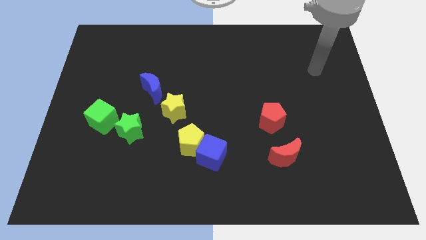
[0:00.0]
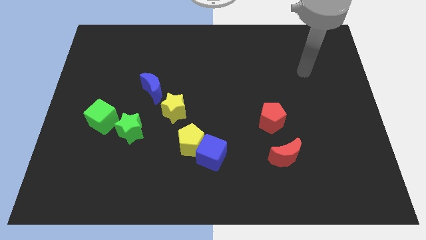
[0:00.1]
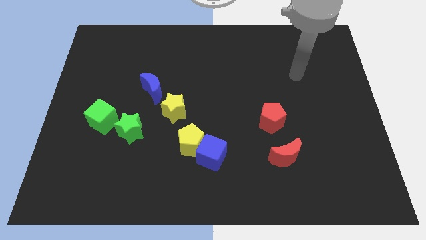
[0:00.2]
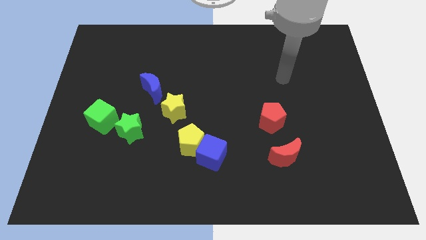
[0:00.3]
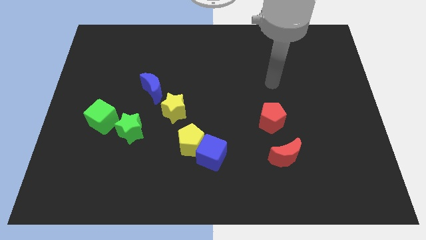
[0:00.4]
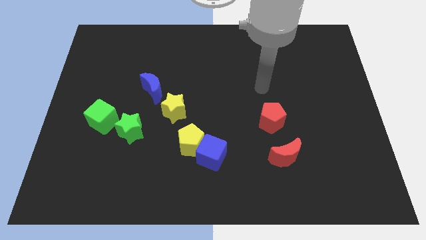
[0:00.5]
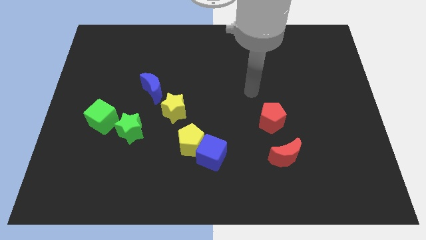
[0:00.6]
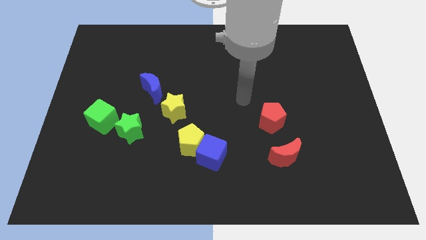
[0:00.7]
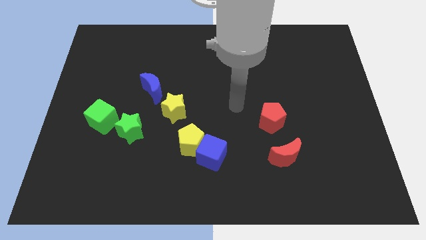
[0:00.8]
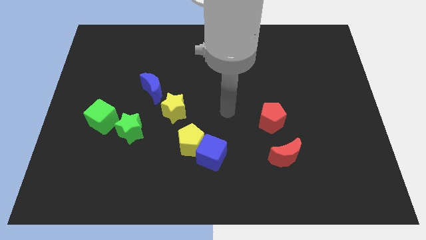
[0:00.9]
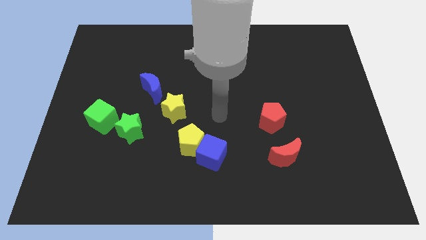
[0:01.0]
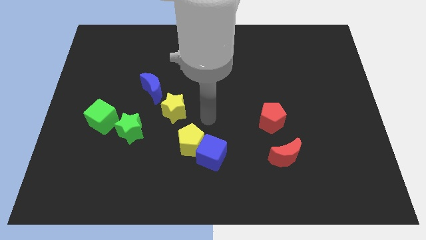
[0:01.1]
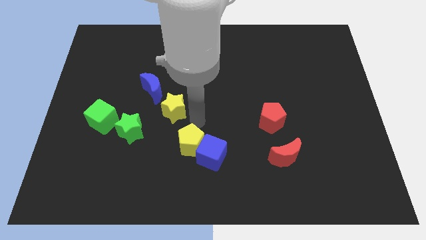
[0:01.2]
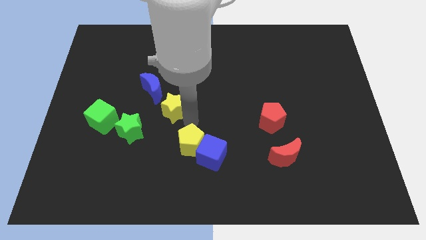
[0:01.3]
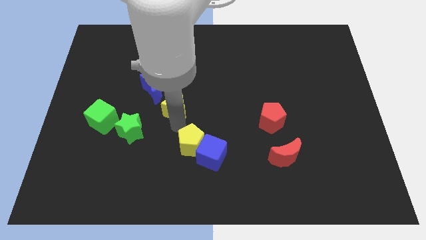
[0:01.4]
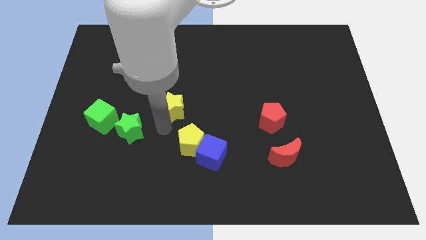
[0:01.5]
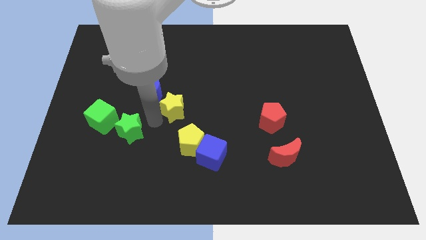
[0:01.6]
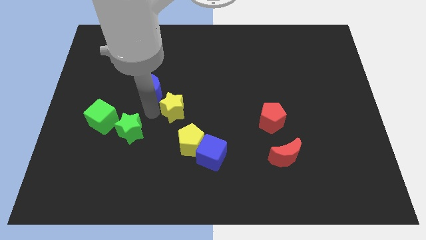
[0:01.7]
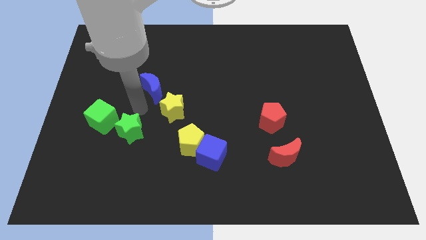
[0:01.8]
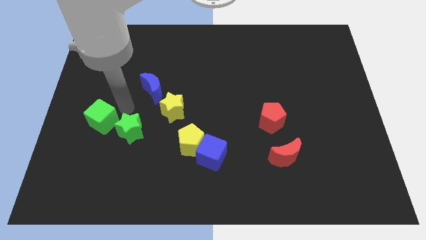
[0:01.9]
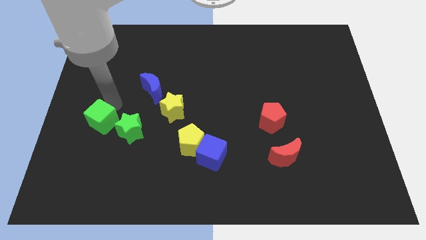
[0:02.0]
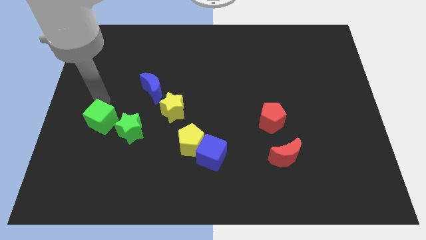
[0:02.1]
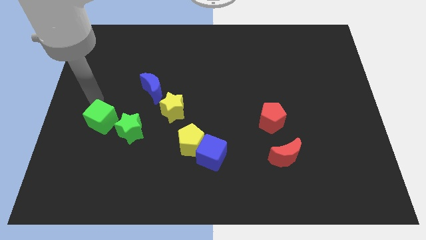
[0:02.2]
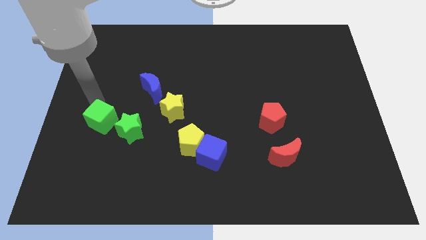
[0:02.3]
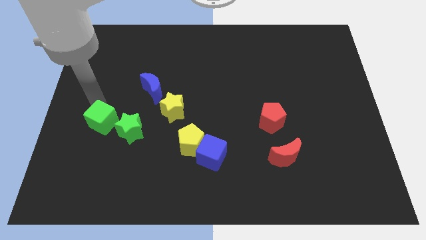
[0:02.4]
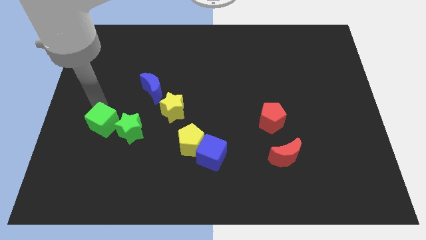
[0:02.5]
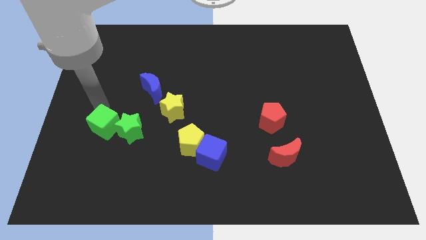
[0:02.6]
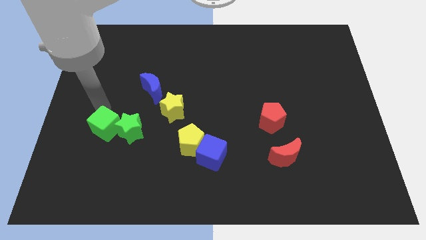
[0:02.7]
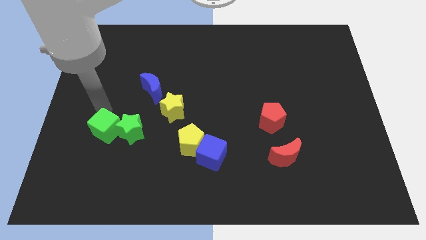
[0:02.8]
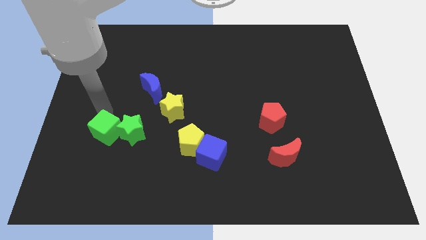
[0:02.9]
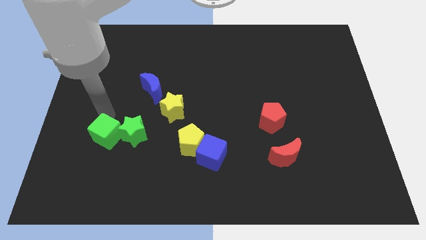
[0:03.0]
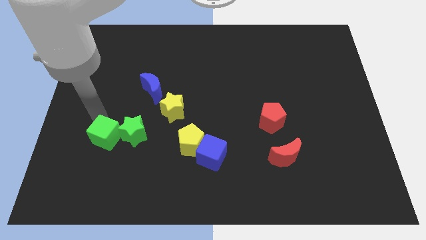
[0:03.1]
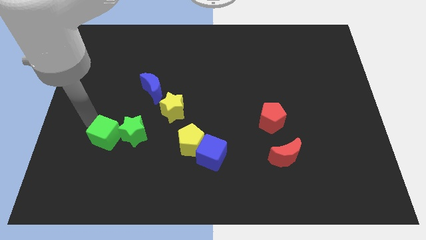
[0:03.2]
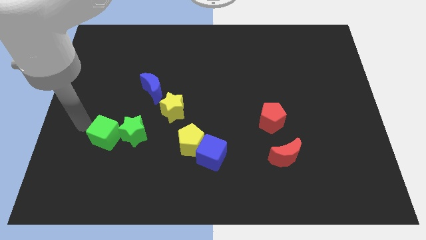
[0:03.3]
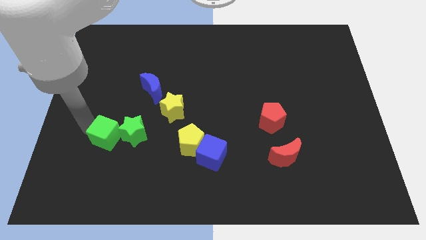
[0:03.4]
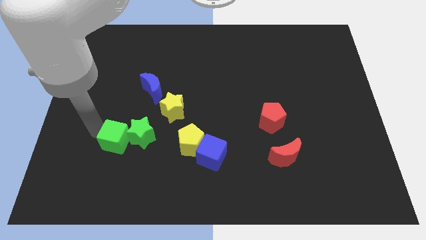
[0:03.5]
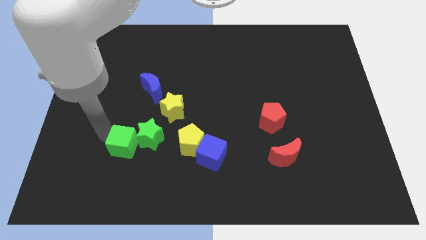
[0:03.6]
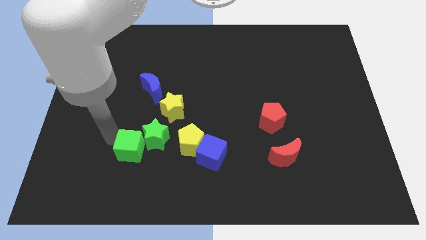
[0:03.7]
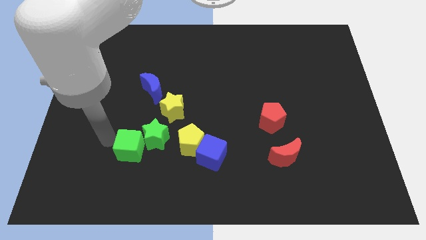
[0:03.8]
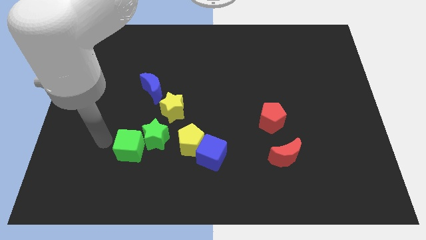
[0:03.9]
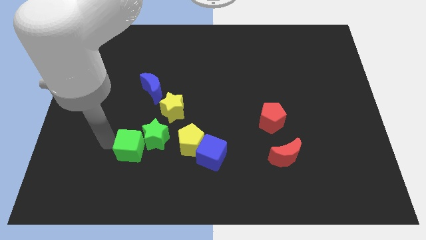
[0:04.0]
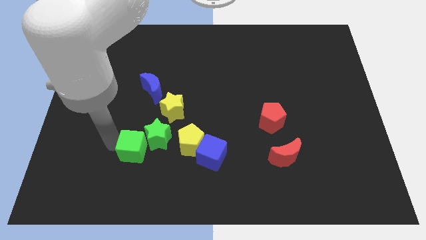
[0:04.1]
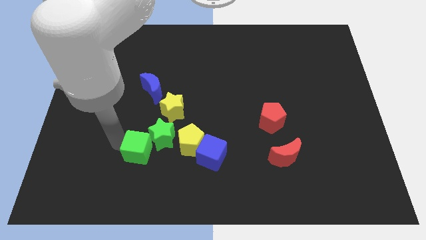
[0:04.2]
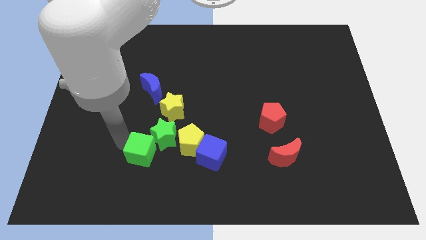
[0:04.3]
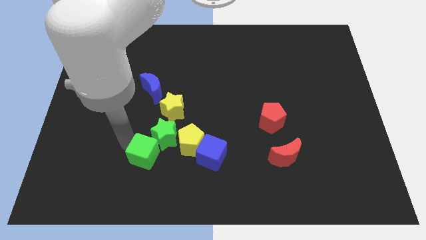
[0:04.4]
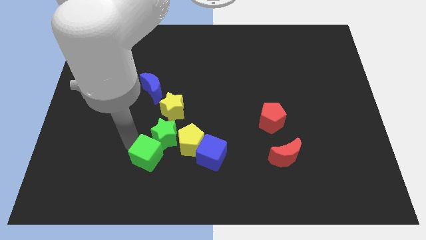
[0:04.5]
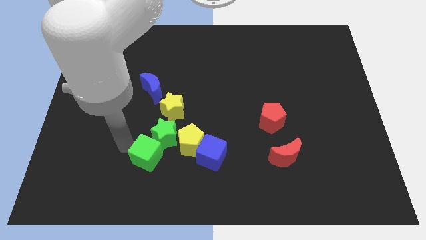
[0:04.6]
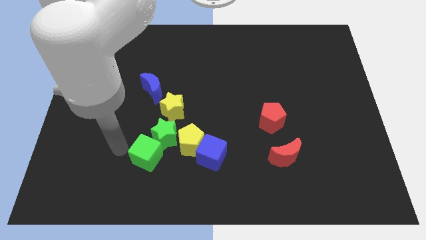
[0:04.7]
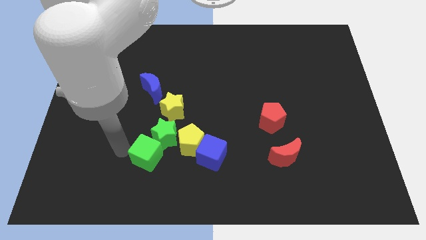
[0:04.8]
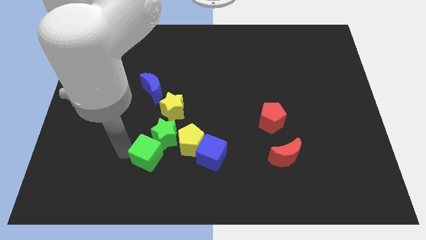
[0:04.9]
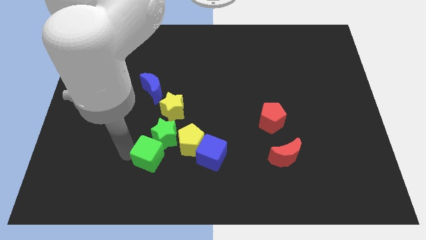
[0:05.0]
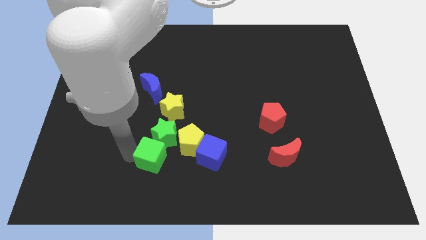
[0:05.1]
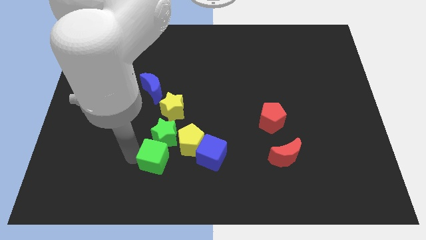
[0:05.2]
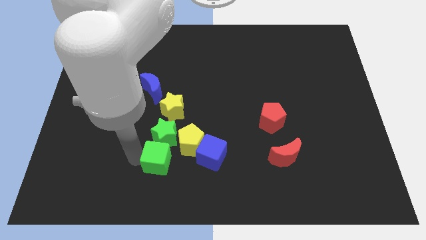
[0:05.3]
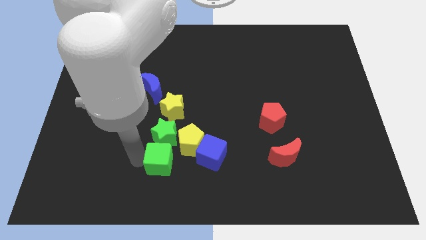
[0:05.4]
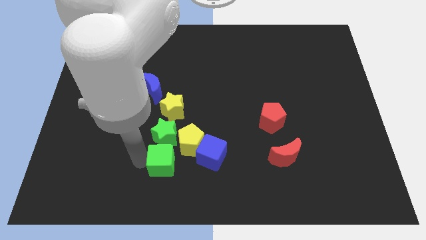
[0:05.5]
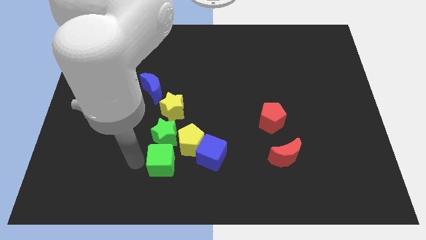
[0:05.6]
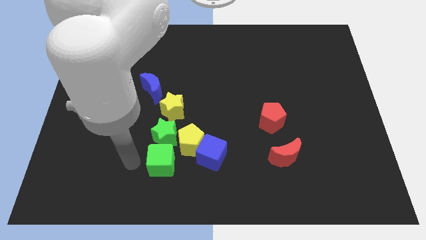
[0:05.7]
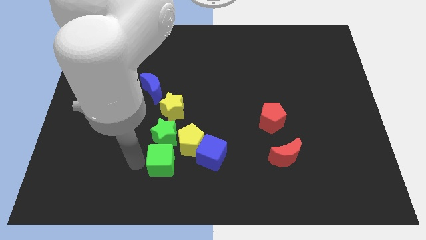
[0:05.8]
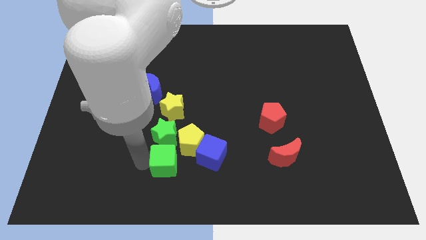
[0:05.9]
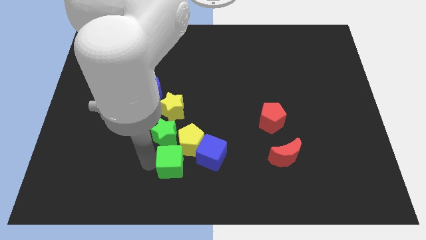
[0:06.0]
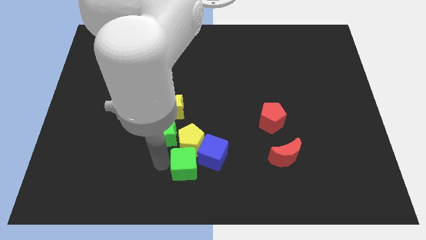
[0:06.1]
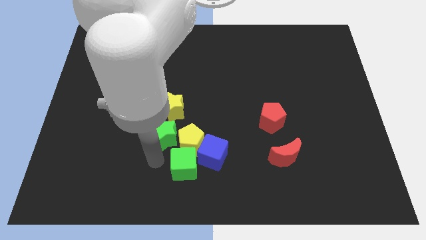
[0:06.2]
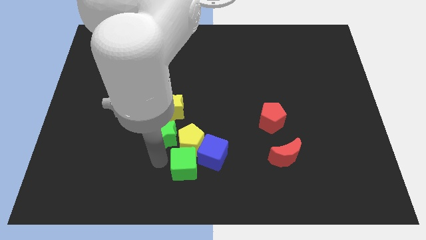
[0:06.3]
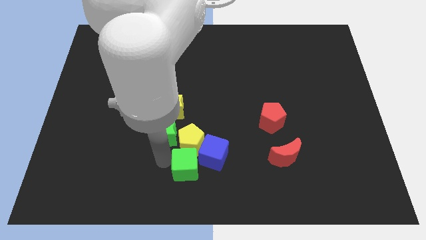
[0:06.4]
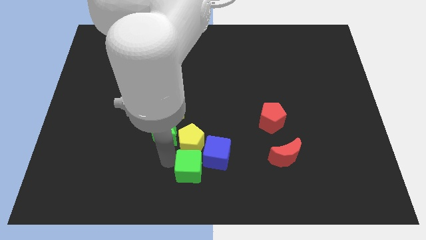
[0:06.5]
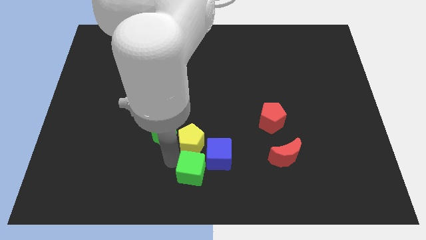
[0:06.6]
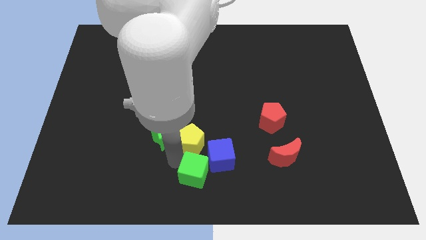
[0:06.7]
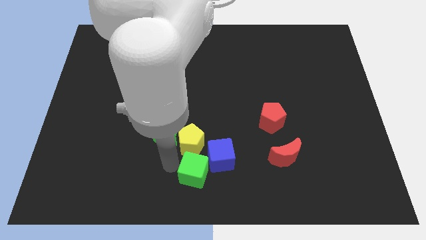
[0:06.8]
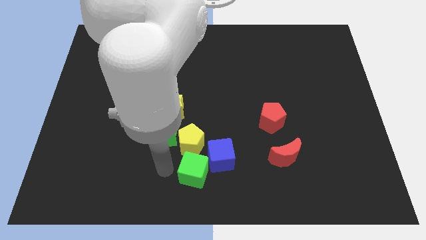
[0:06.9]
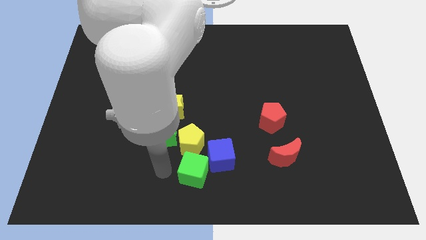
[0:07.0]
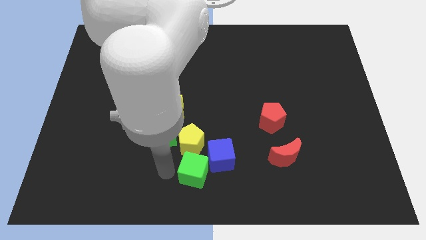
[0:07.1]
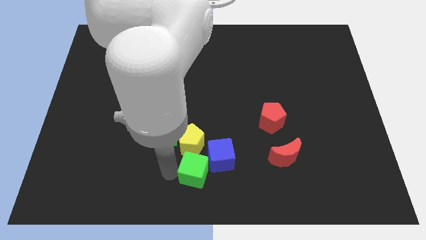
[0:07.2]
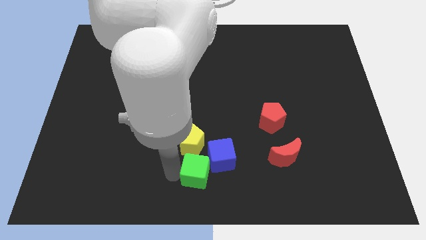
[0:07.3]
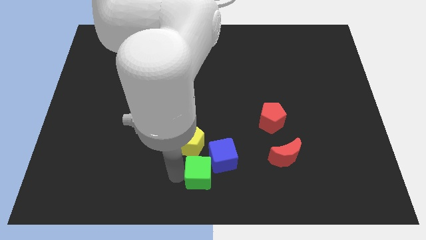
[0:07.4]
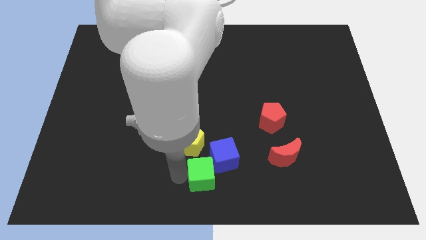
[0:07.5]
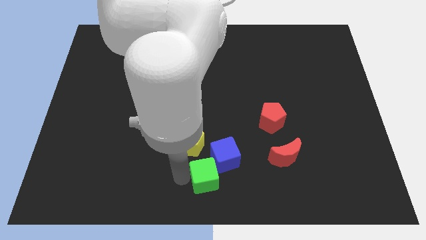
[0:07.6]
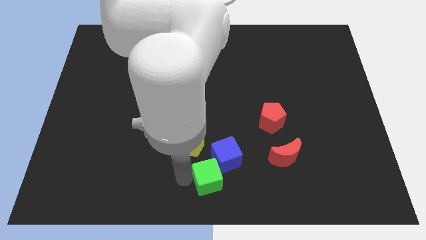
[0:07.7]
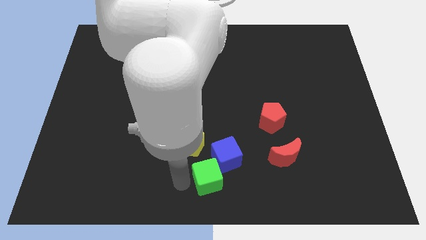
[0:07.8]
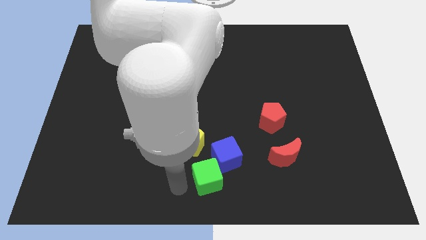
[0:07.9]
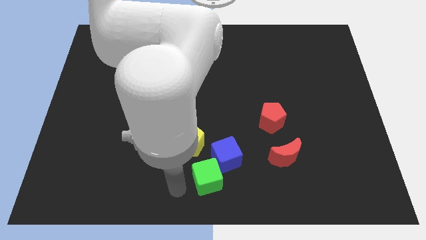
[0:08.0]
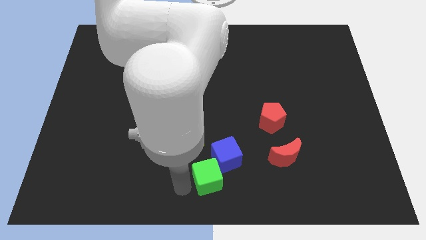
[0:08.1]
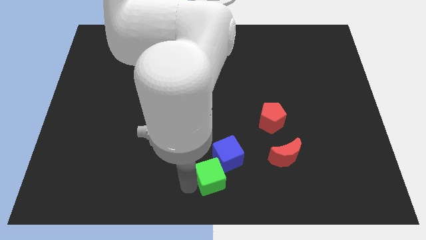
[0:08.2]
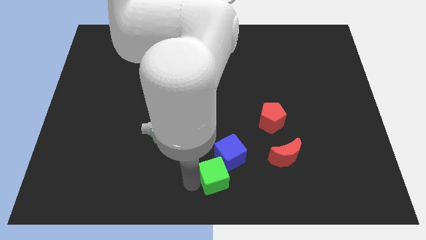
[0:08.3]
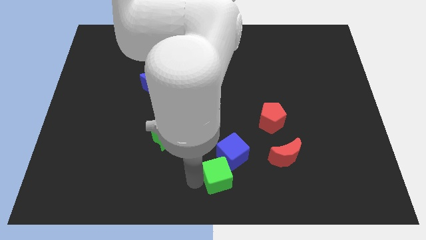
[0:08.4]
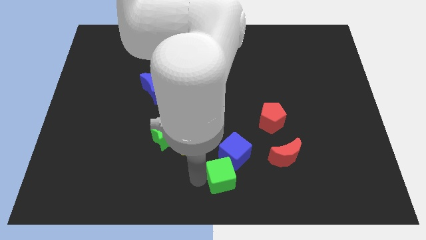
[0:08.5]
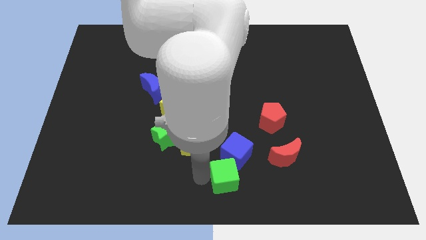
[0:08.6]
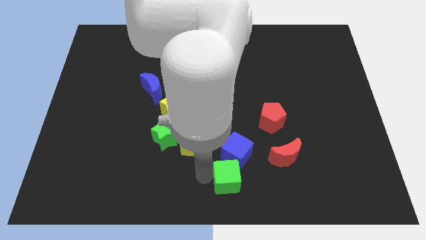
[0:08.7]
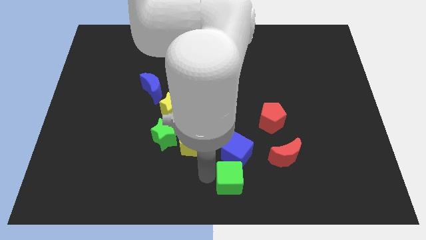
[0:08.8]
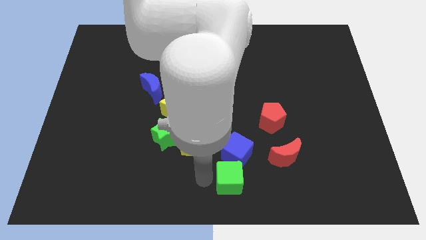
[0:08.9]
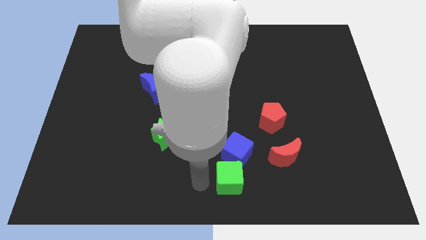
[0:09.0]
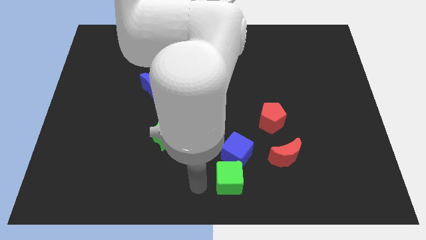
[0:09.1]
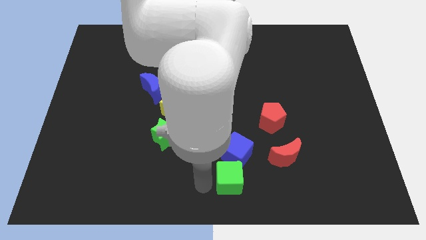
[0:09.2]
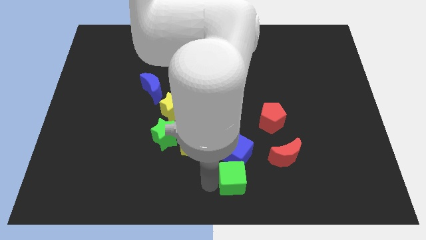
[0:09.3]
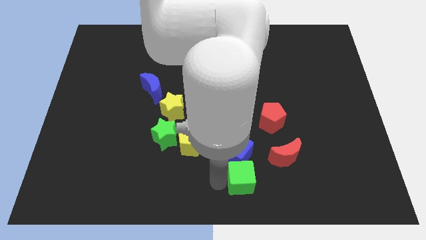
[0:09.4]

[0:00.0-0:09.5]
put the green cube to the bottom left side of the red moon
